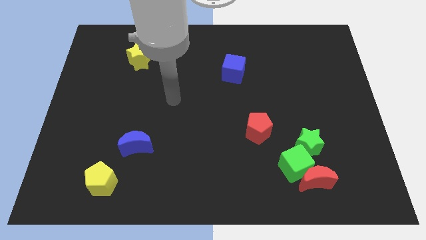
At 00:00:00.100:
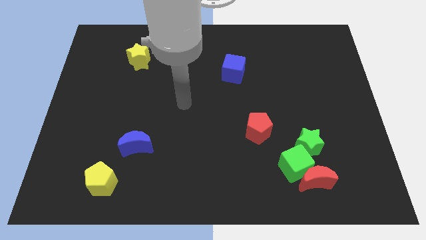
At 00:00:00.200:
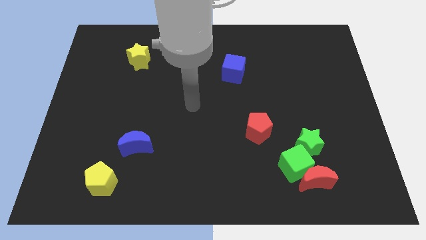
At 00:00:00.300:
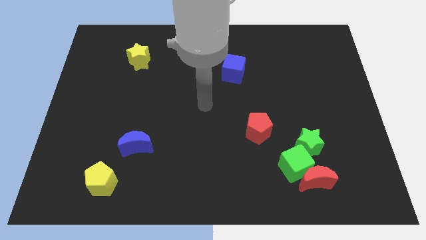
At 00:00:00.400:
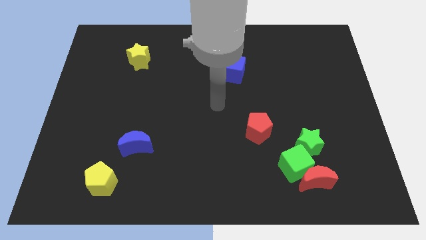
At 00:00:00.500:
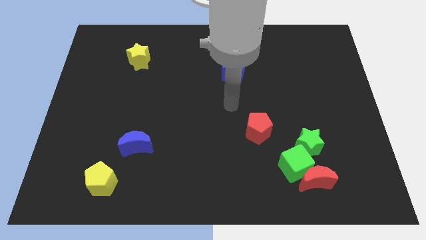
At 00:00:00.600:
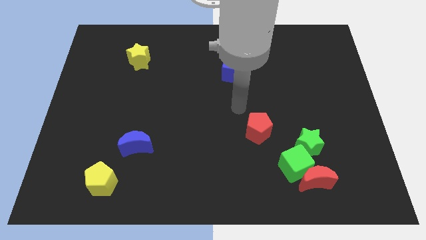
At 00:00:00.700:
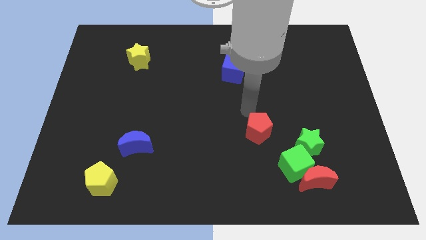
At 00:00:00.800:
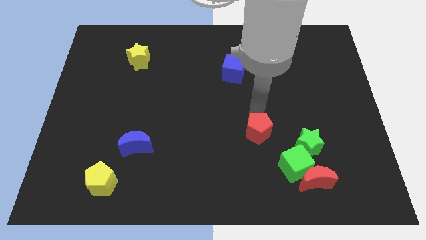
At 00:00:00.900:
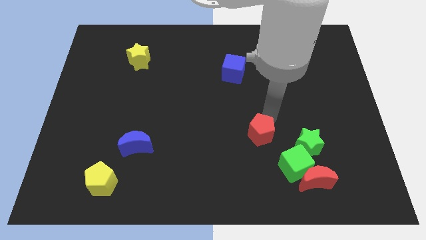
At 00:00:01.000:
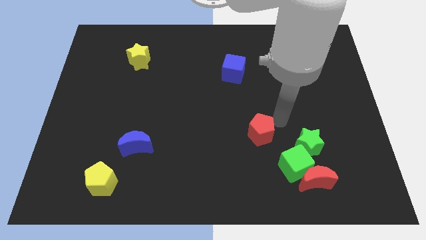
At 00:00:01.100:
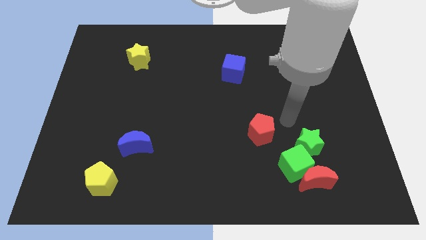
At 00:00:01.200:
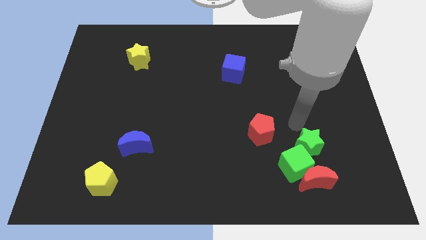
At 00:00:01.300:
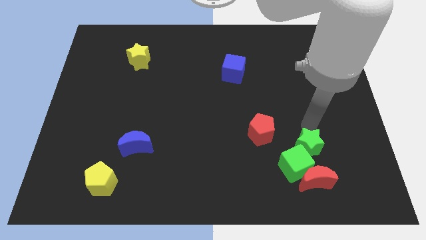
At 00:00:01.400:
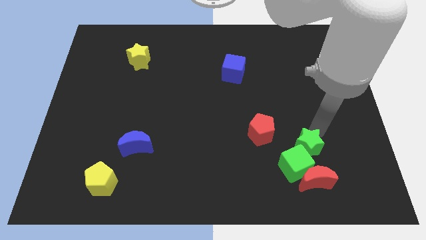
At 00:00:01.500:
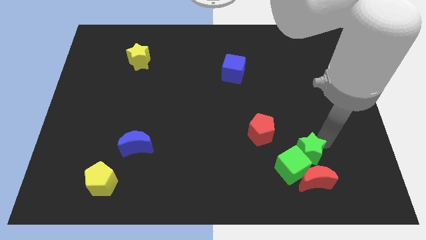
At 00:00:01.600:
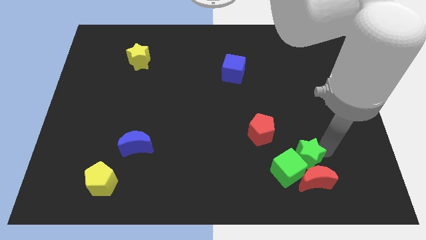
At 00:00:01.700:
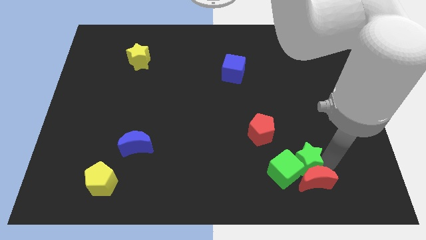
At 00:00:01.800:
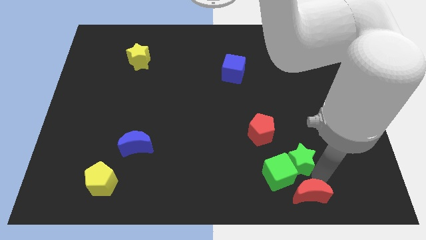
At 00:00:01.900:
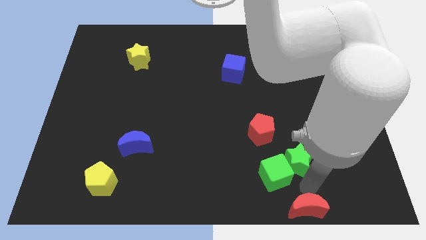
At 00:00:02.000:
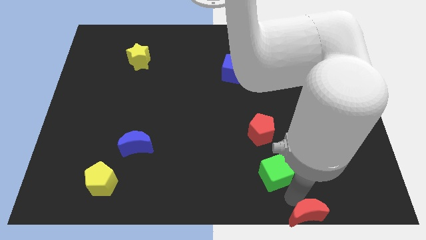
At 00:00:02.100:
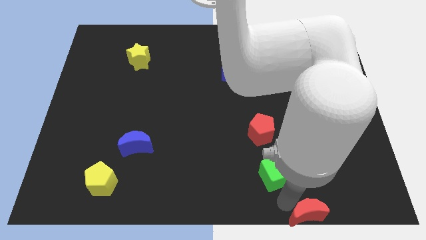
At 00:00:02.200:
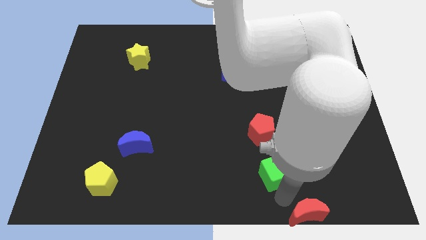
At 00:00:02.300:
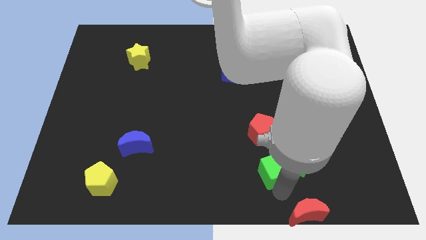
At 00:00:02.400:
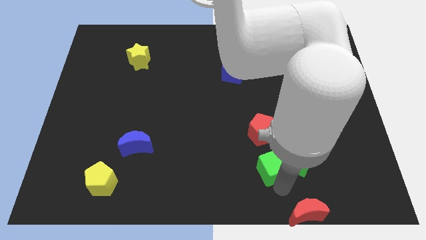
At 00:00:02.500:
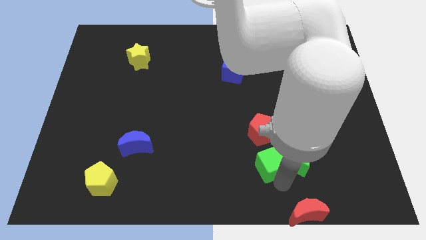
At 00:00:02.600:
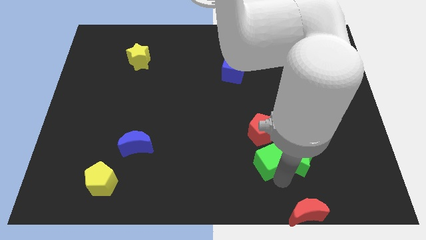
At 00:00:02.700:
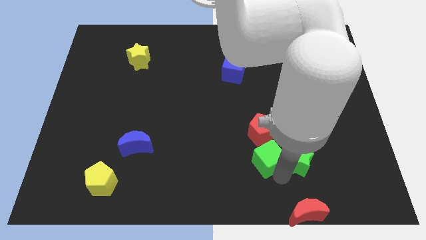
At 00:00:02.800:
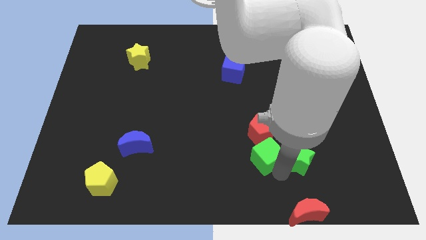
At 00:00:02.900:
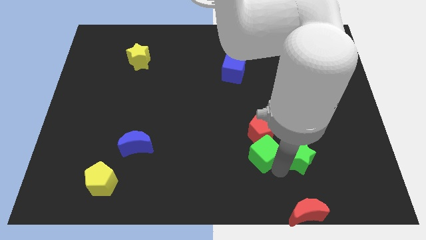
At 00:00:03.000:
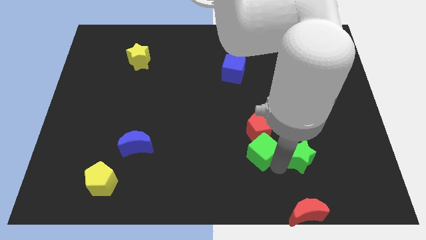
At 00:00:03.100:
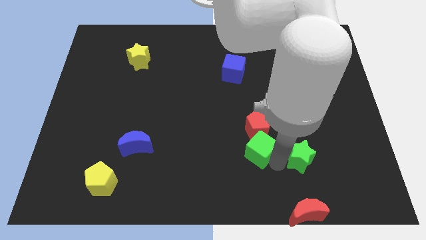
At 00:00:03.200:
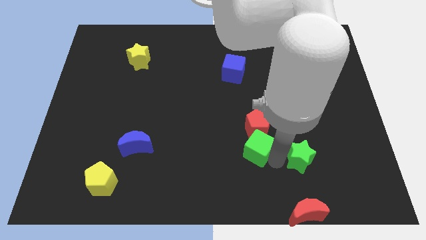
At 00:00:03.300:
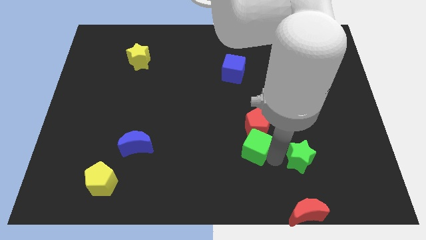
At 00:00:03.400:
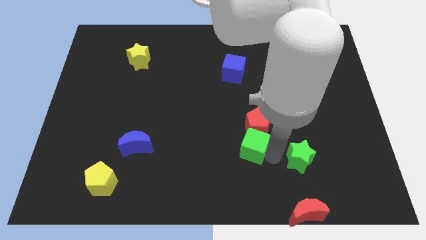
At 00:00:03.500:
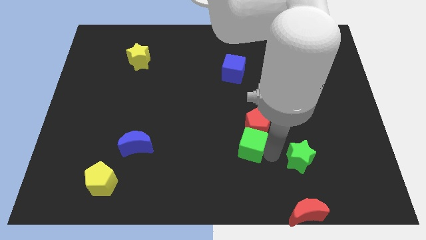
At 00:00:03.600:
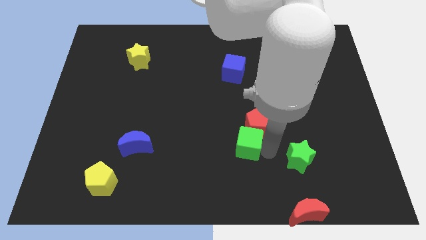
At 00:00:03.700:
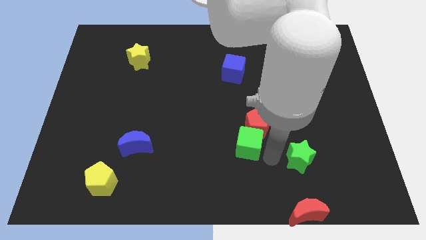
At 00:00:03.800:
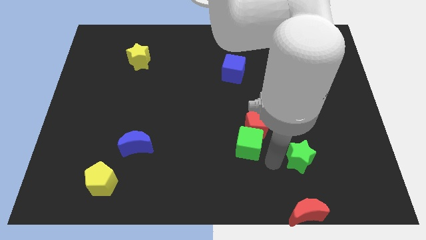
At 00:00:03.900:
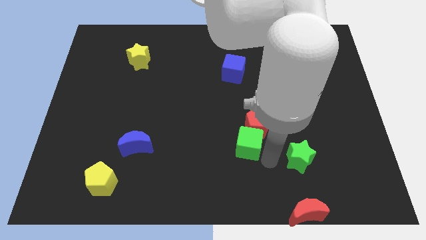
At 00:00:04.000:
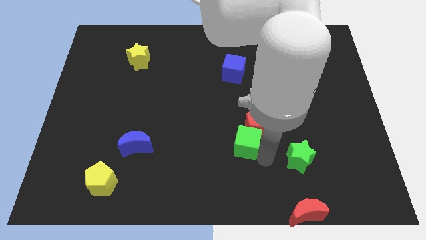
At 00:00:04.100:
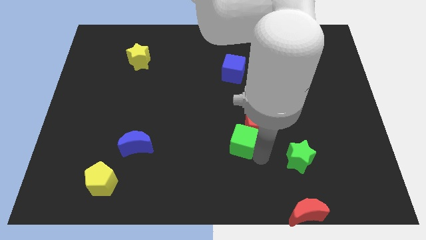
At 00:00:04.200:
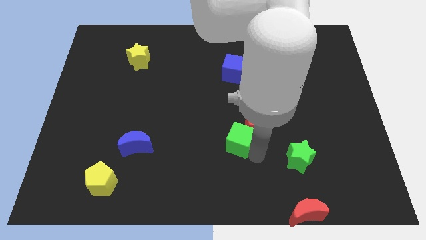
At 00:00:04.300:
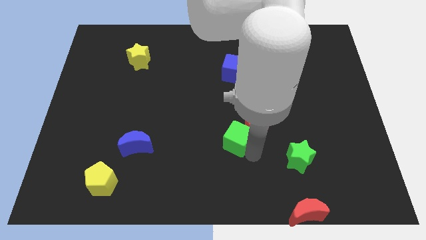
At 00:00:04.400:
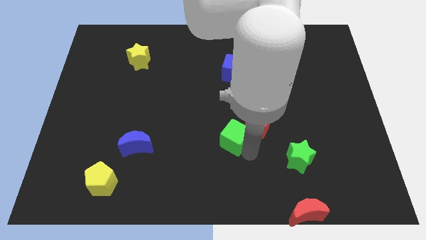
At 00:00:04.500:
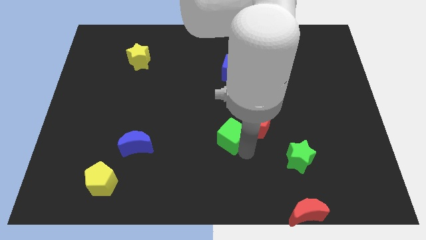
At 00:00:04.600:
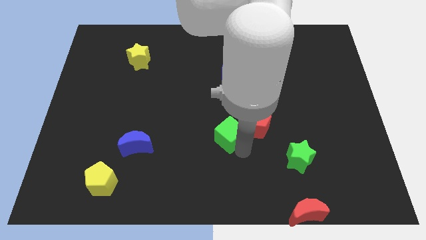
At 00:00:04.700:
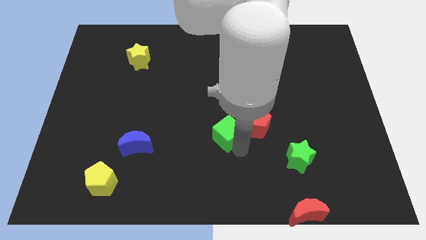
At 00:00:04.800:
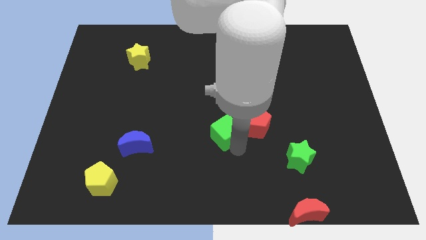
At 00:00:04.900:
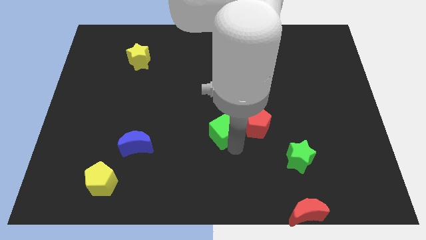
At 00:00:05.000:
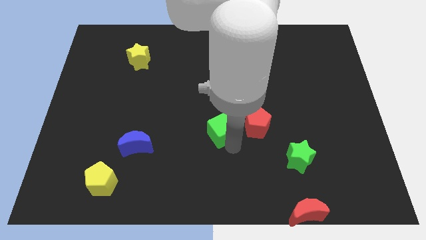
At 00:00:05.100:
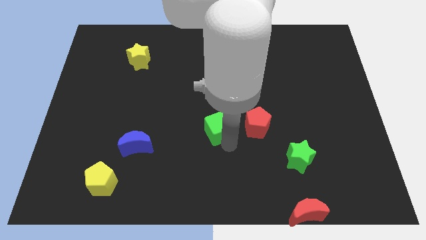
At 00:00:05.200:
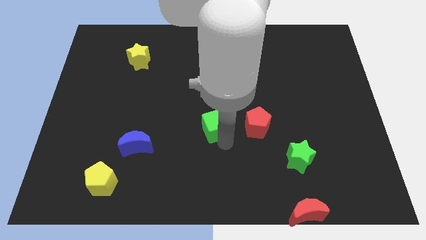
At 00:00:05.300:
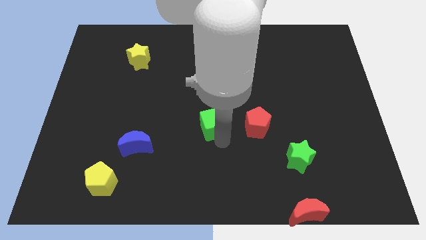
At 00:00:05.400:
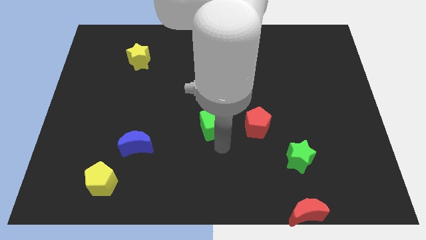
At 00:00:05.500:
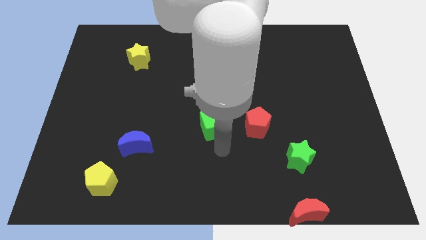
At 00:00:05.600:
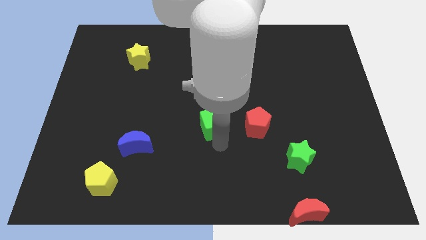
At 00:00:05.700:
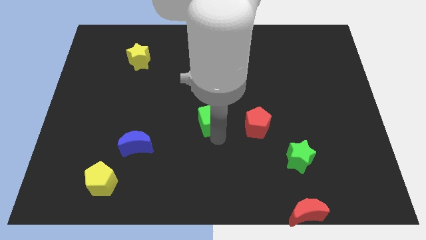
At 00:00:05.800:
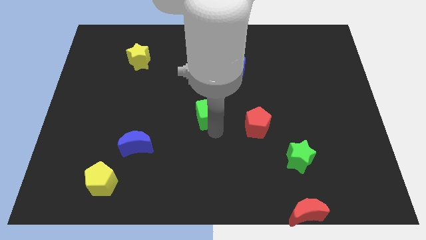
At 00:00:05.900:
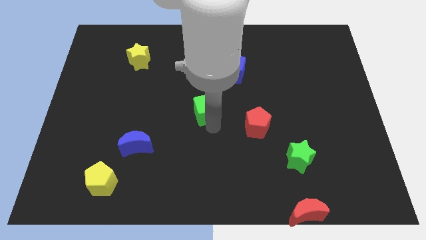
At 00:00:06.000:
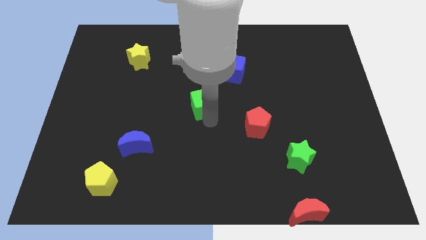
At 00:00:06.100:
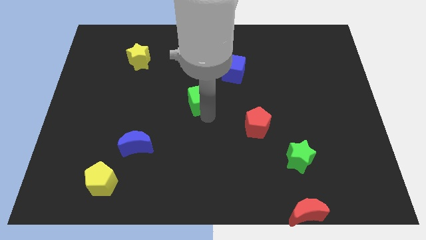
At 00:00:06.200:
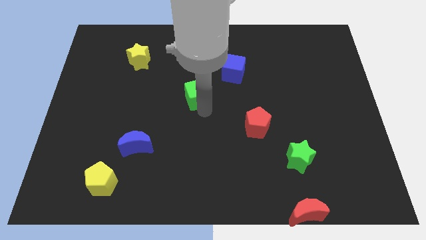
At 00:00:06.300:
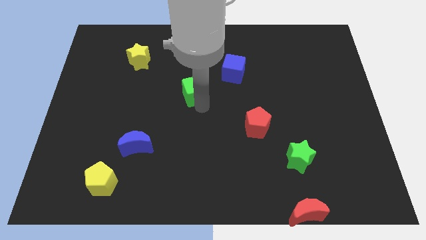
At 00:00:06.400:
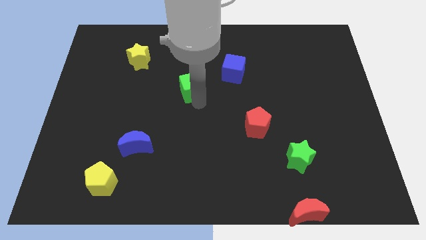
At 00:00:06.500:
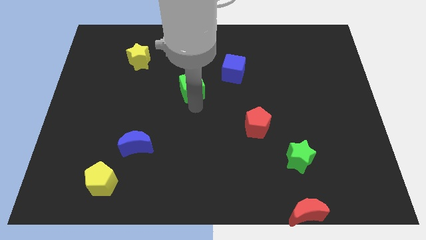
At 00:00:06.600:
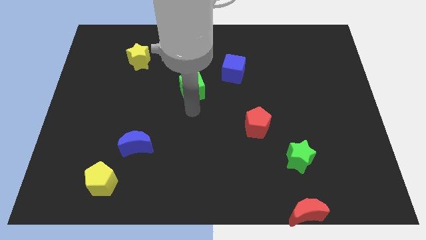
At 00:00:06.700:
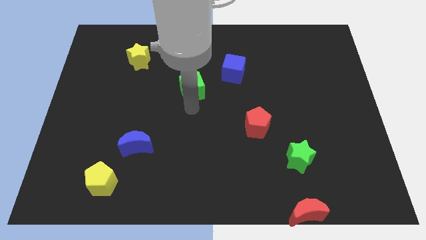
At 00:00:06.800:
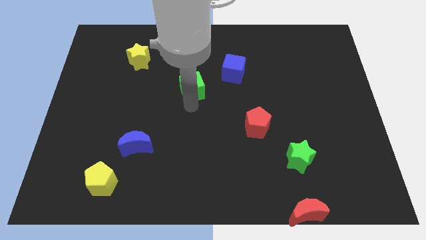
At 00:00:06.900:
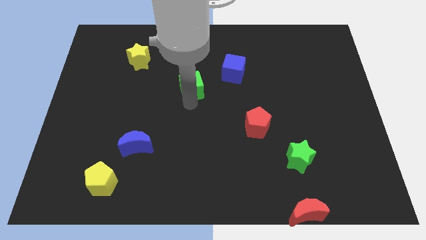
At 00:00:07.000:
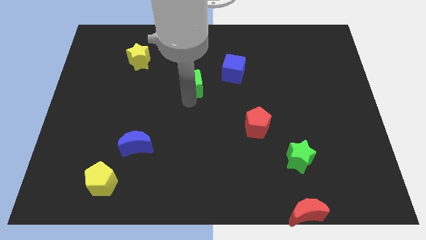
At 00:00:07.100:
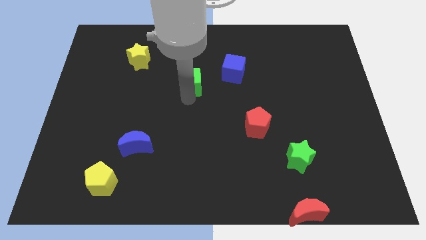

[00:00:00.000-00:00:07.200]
move the green cube left of the blue cube
